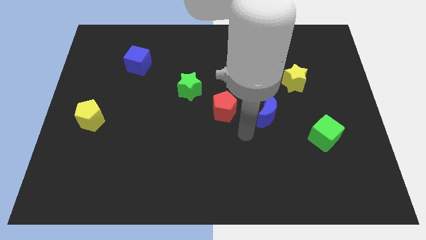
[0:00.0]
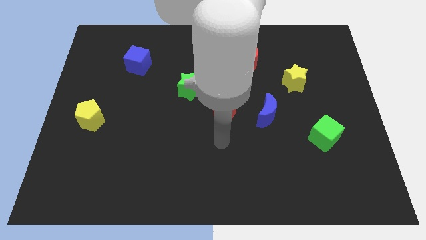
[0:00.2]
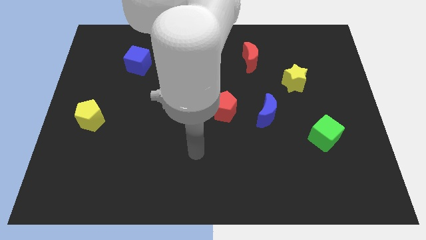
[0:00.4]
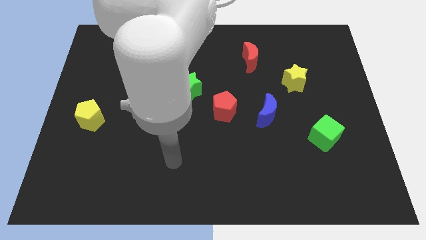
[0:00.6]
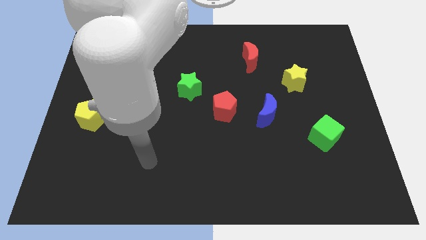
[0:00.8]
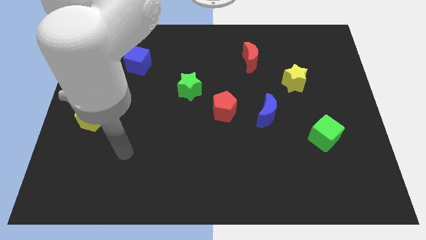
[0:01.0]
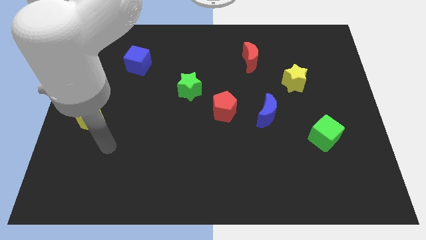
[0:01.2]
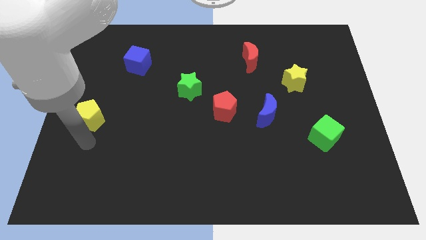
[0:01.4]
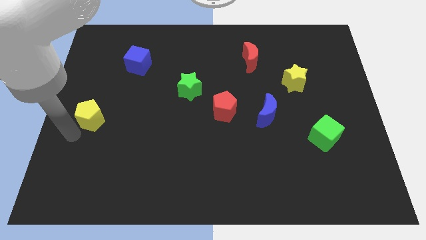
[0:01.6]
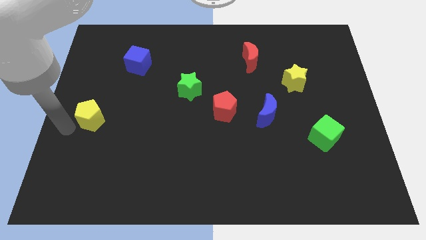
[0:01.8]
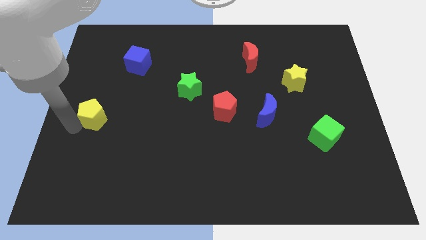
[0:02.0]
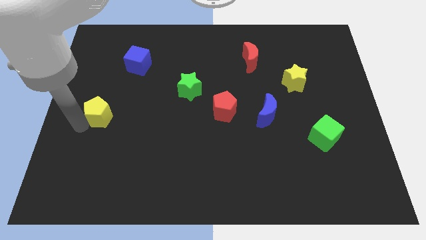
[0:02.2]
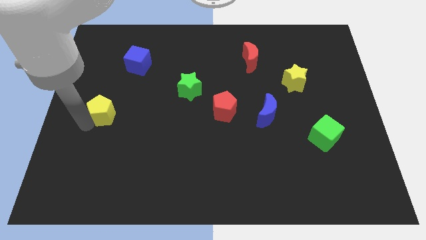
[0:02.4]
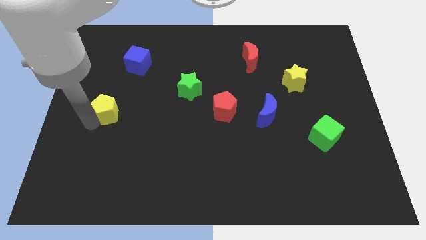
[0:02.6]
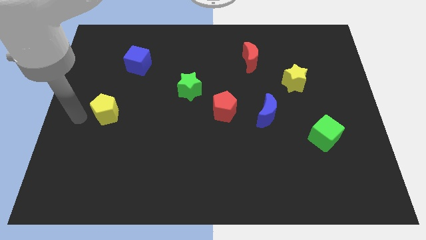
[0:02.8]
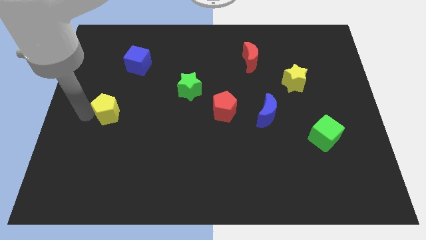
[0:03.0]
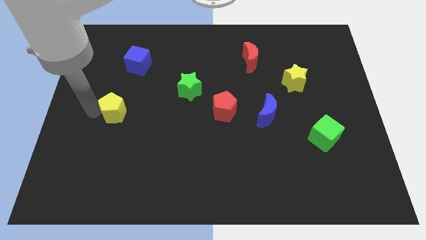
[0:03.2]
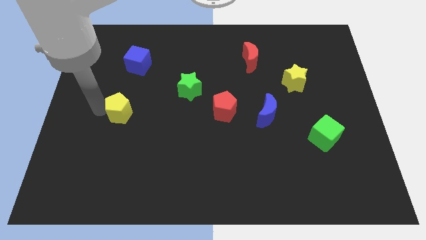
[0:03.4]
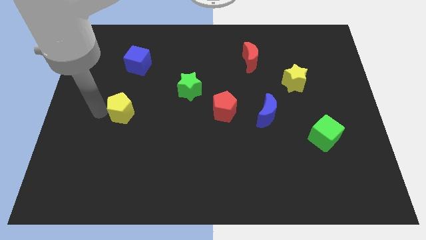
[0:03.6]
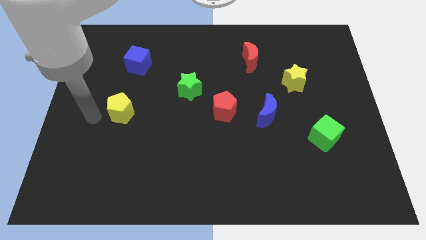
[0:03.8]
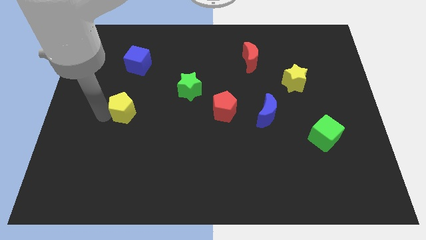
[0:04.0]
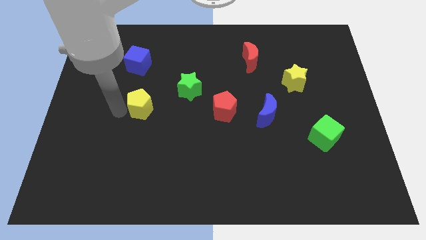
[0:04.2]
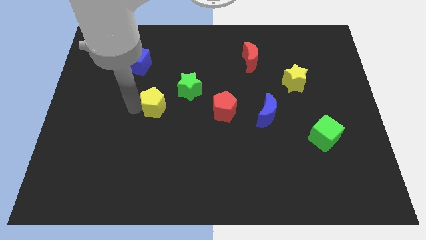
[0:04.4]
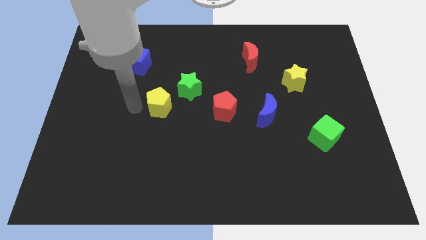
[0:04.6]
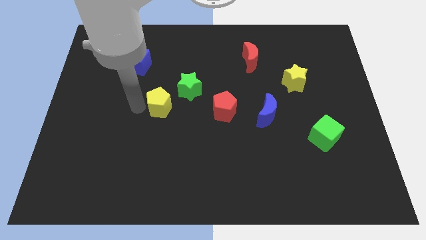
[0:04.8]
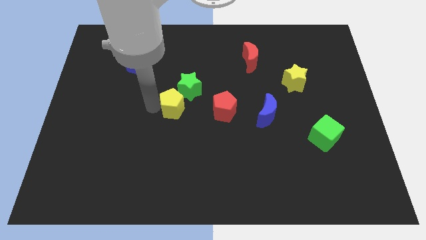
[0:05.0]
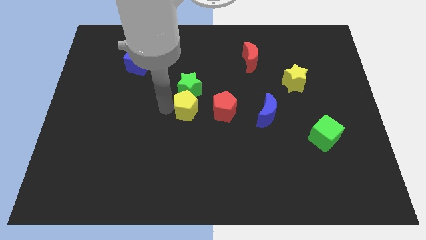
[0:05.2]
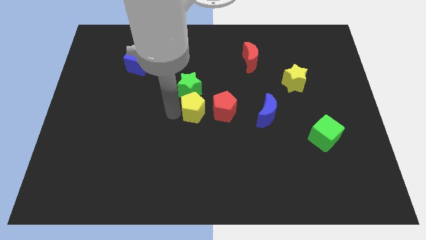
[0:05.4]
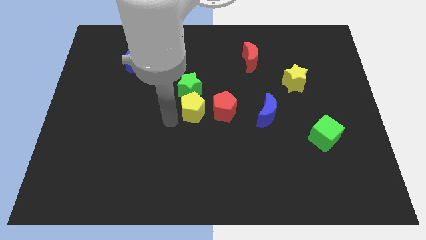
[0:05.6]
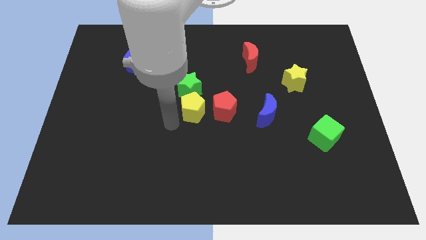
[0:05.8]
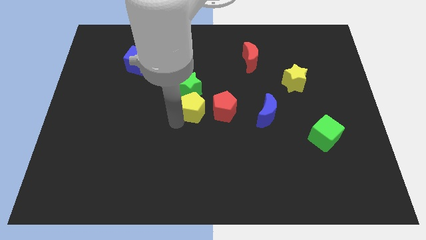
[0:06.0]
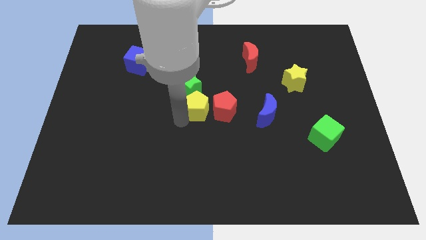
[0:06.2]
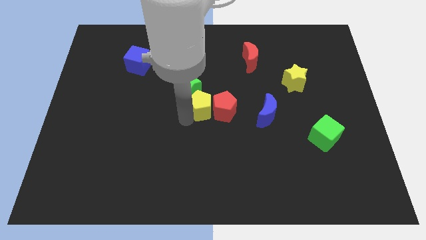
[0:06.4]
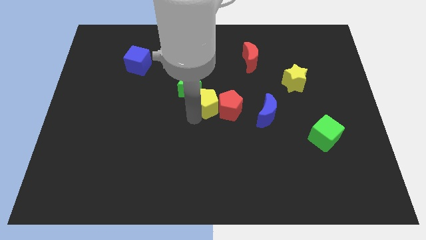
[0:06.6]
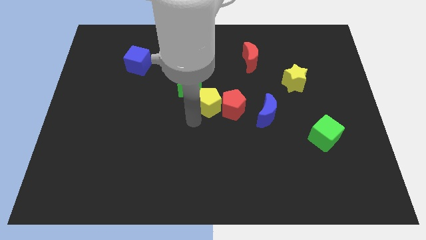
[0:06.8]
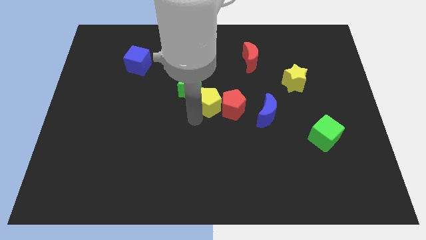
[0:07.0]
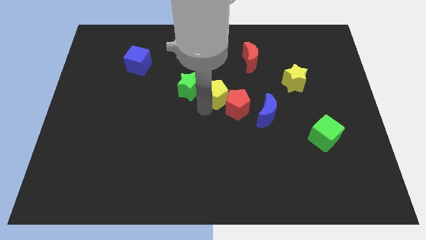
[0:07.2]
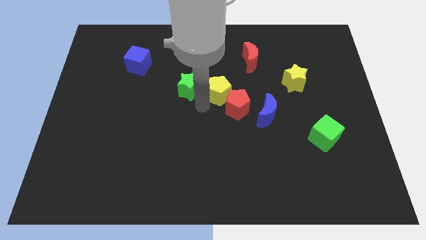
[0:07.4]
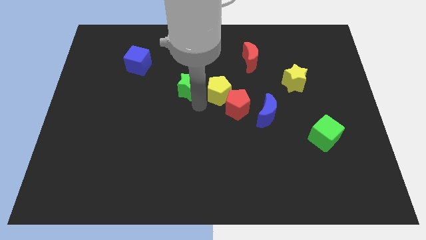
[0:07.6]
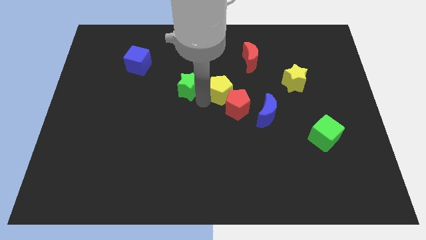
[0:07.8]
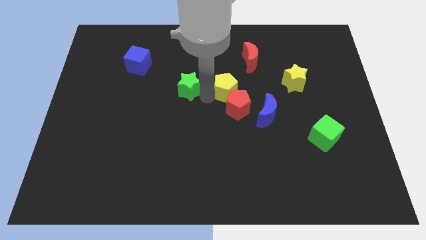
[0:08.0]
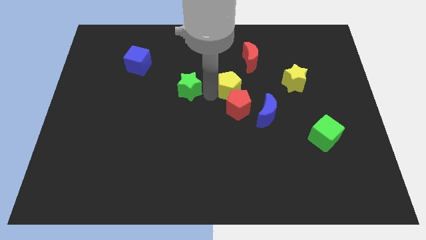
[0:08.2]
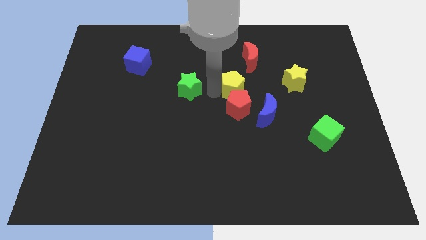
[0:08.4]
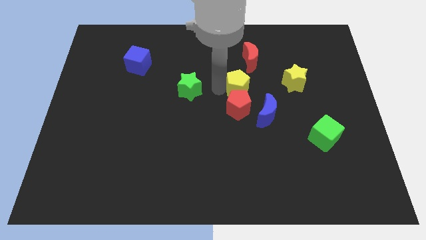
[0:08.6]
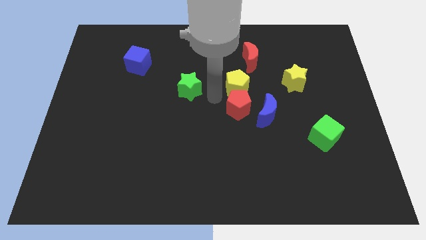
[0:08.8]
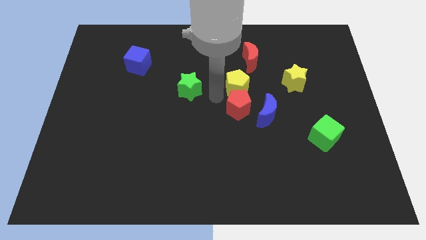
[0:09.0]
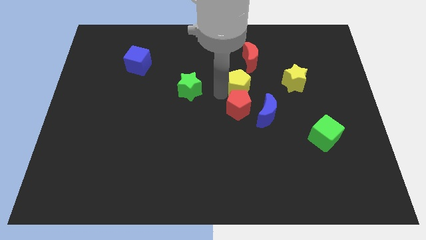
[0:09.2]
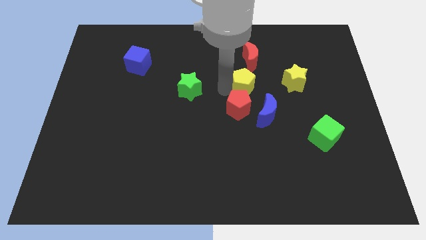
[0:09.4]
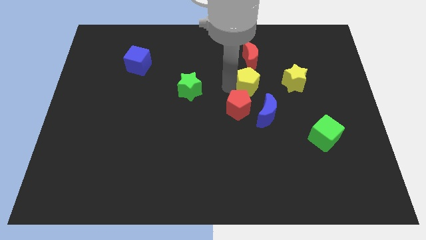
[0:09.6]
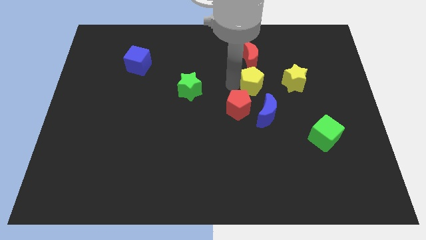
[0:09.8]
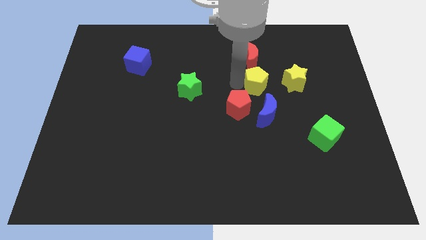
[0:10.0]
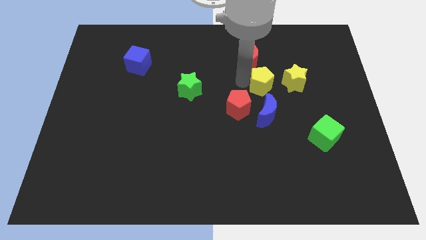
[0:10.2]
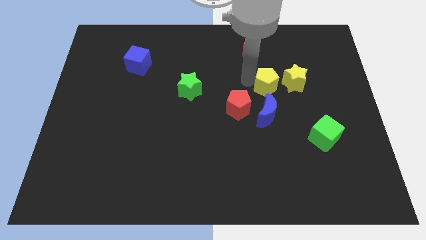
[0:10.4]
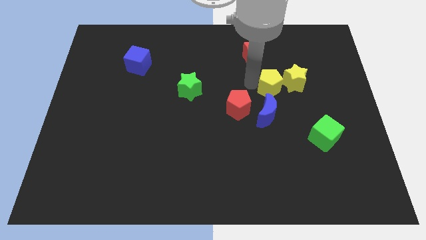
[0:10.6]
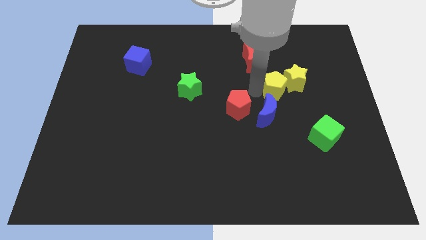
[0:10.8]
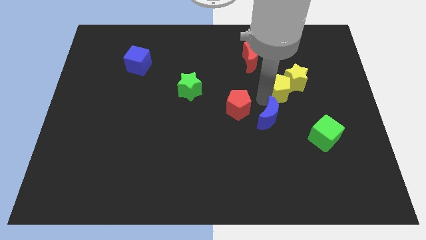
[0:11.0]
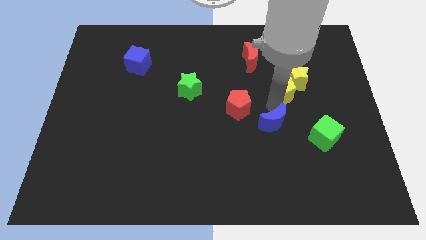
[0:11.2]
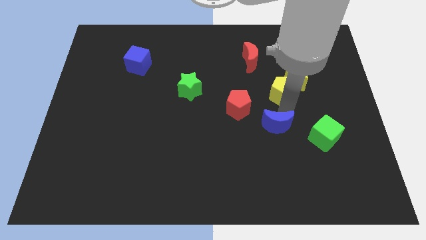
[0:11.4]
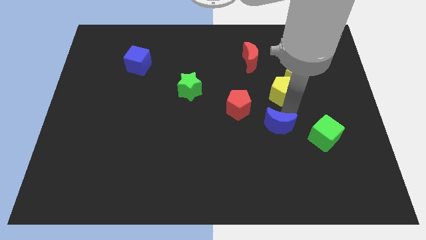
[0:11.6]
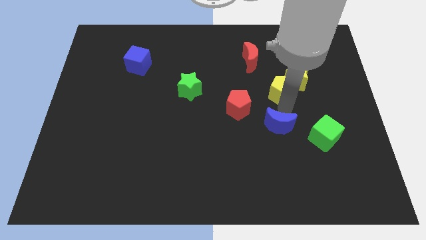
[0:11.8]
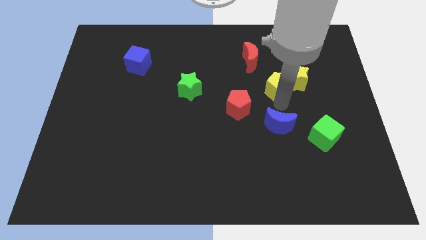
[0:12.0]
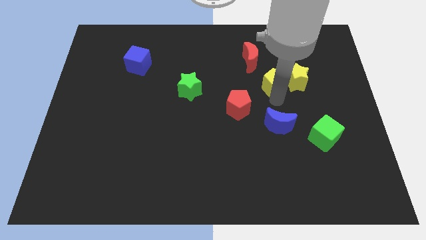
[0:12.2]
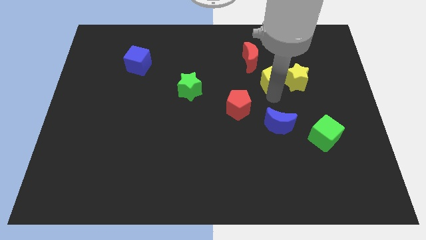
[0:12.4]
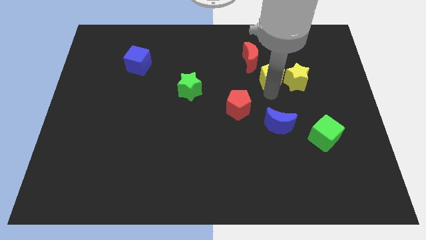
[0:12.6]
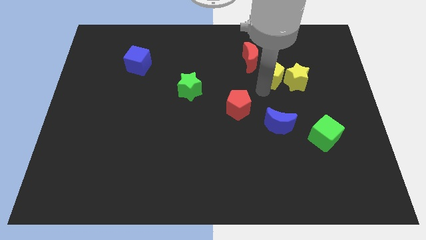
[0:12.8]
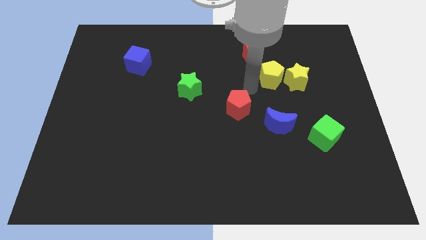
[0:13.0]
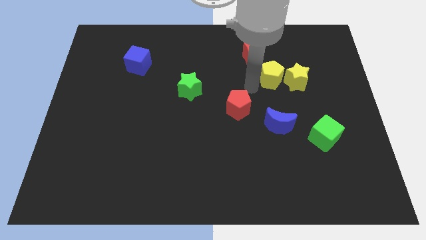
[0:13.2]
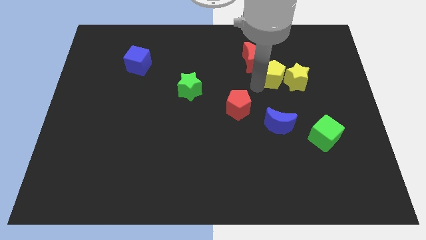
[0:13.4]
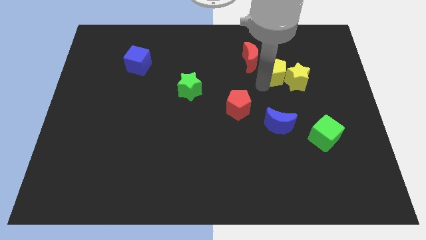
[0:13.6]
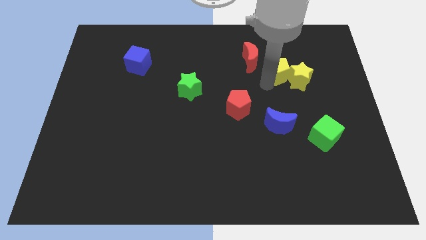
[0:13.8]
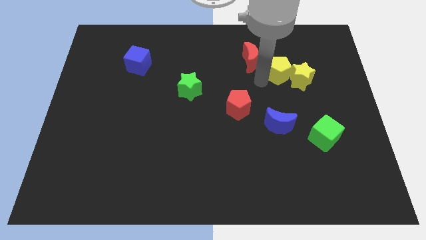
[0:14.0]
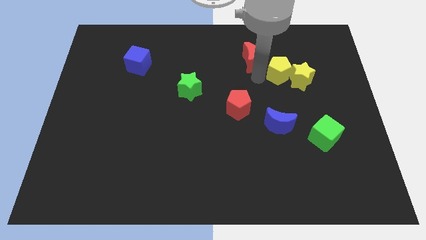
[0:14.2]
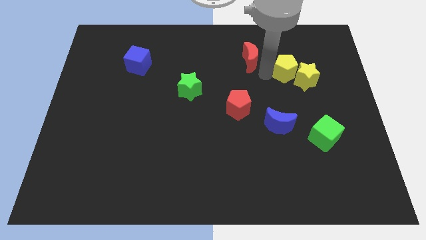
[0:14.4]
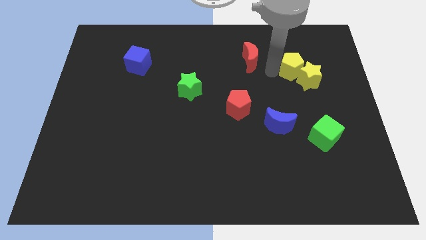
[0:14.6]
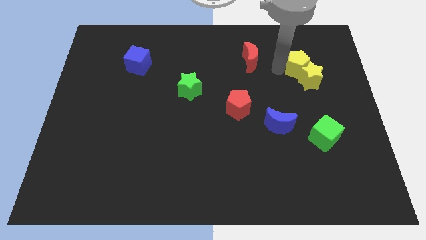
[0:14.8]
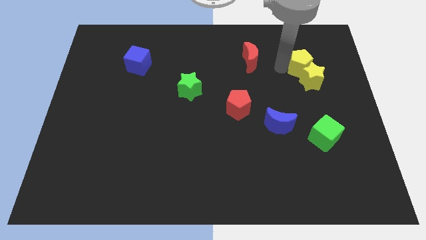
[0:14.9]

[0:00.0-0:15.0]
push the yellow pentagon to the top right side of the yellow star
